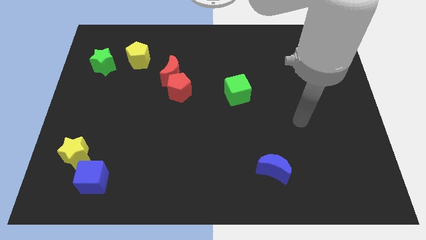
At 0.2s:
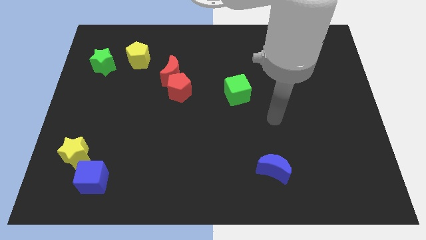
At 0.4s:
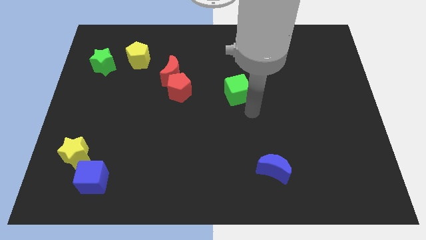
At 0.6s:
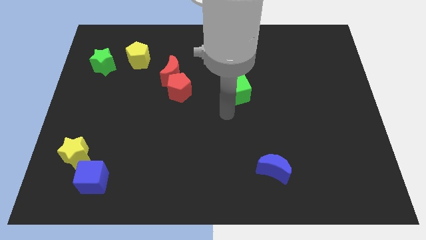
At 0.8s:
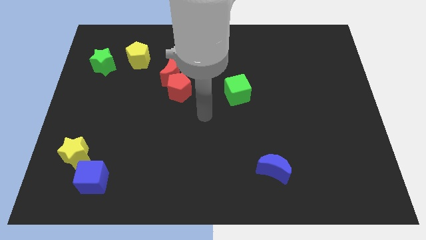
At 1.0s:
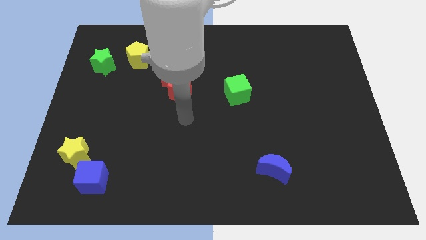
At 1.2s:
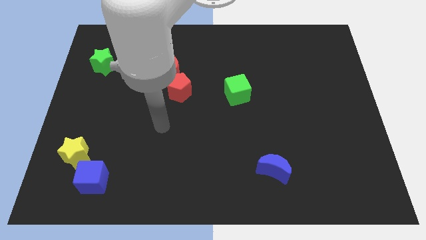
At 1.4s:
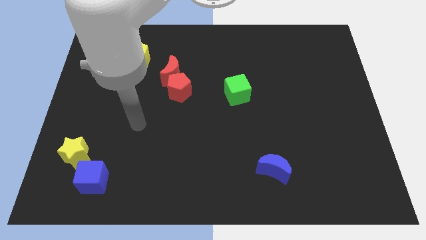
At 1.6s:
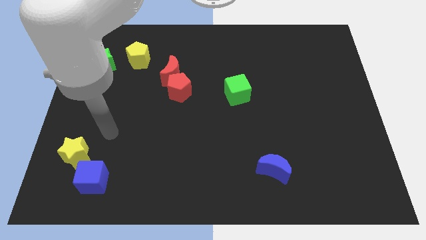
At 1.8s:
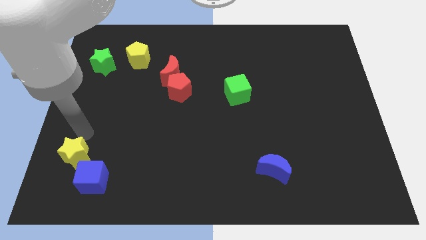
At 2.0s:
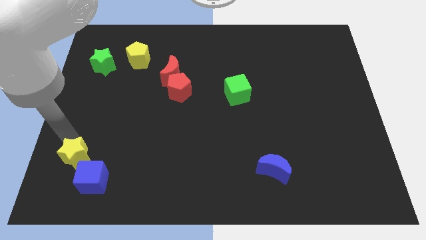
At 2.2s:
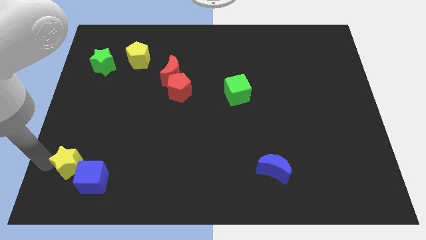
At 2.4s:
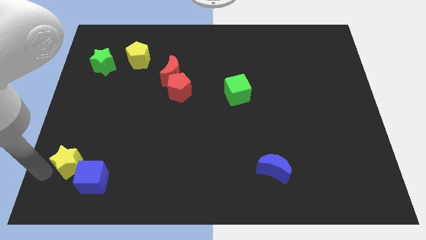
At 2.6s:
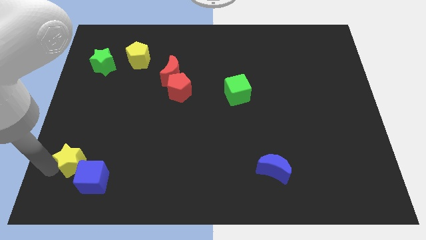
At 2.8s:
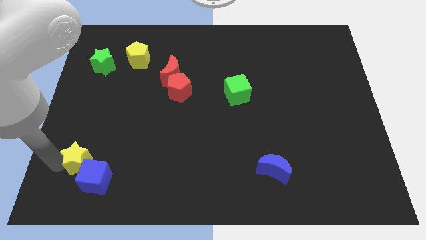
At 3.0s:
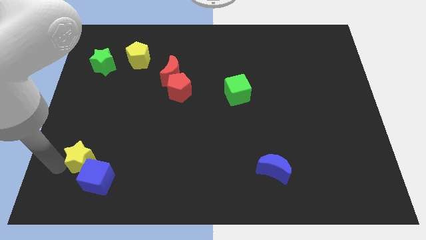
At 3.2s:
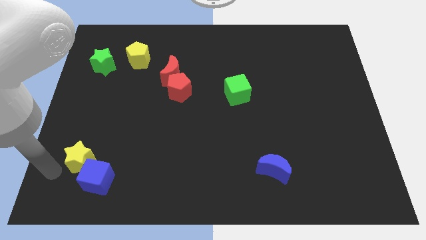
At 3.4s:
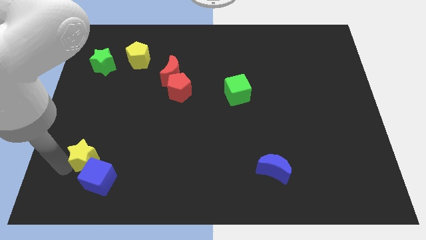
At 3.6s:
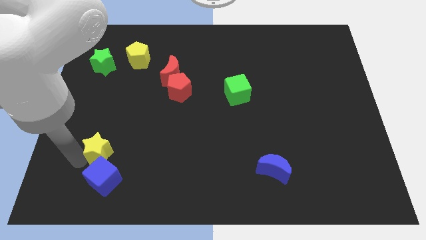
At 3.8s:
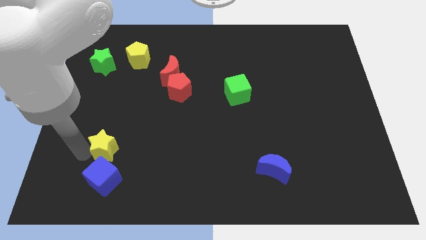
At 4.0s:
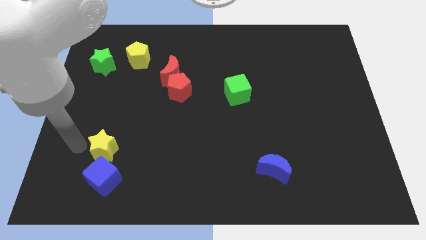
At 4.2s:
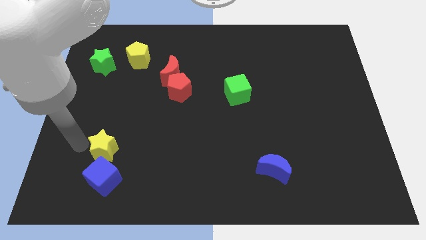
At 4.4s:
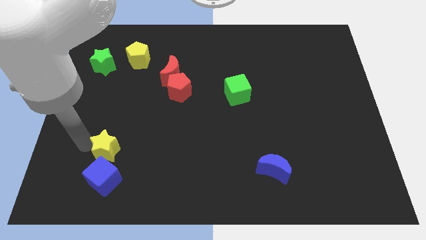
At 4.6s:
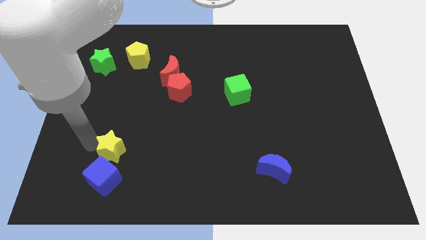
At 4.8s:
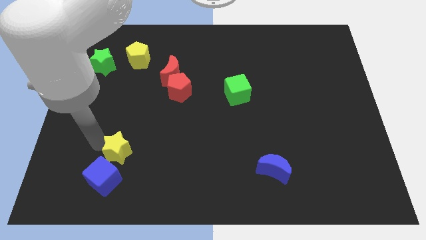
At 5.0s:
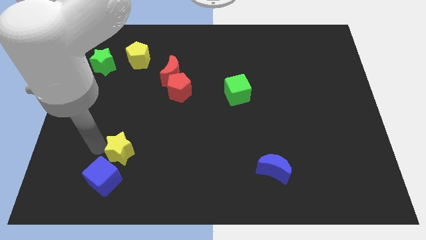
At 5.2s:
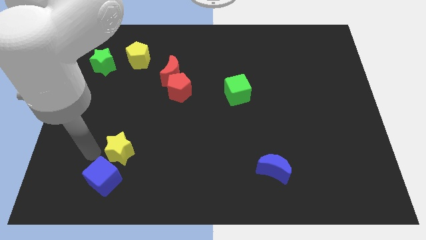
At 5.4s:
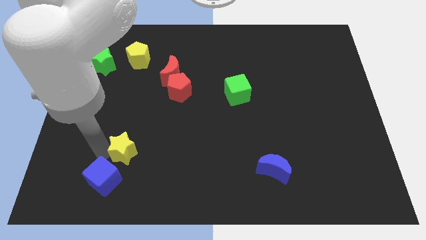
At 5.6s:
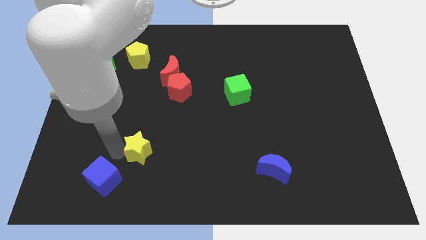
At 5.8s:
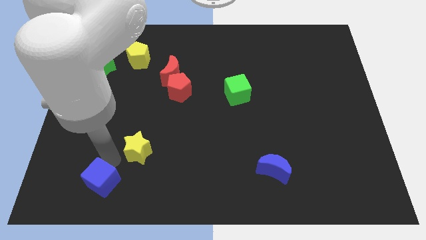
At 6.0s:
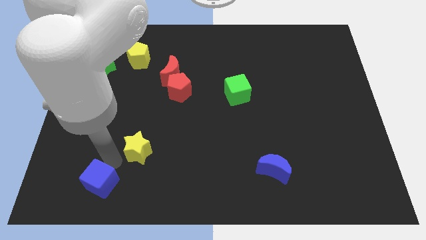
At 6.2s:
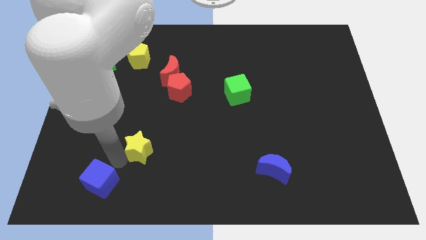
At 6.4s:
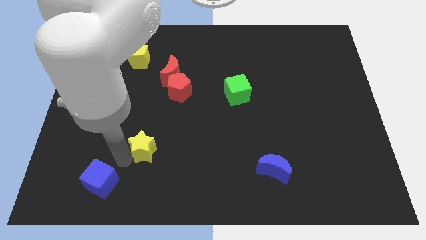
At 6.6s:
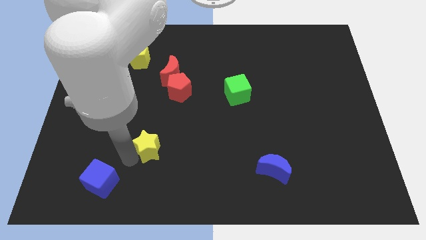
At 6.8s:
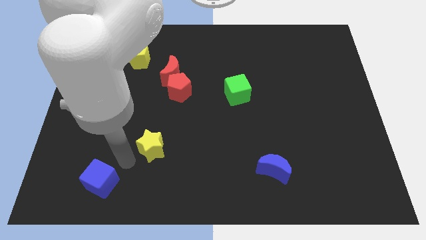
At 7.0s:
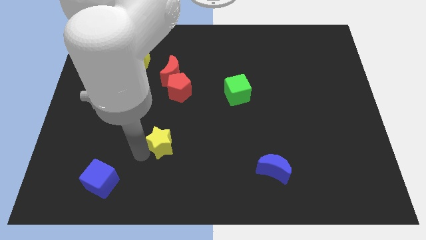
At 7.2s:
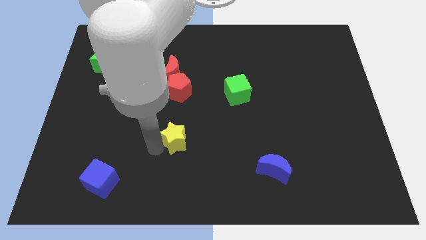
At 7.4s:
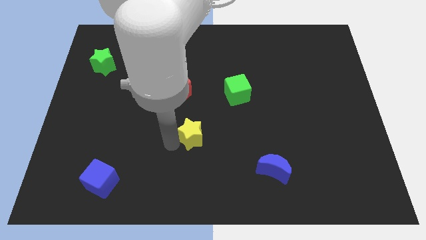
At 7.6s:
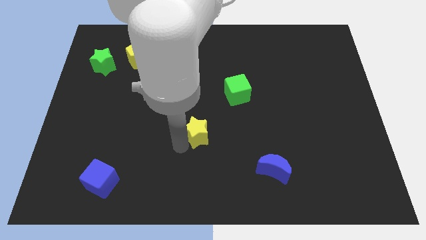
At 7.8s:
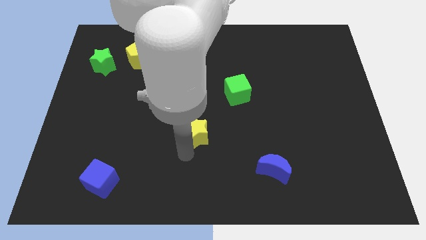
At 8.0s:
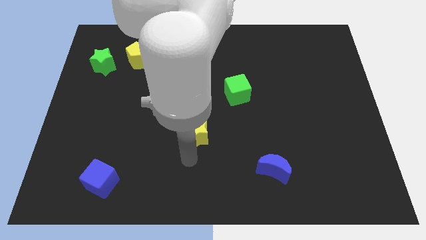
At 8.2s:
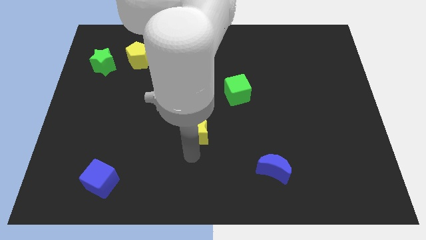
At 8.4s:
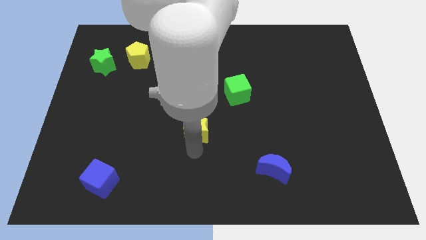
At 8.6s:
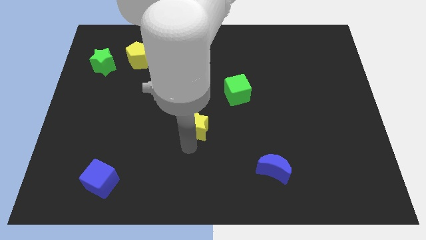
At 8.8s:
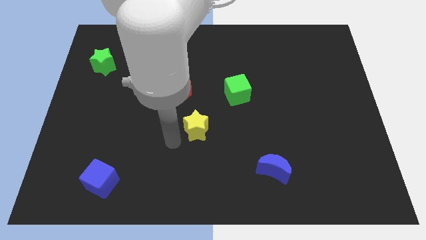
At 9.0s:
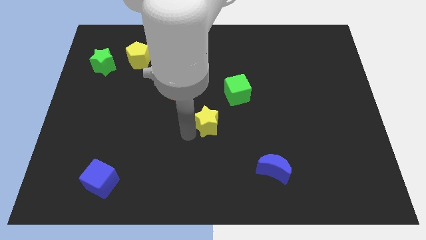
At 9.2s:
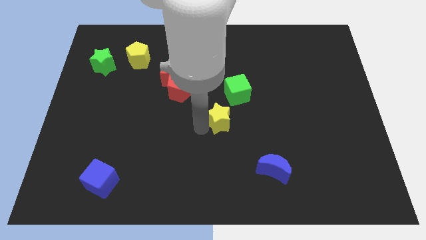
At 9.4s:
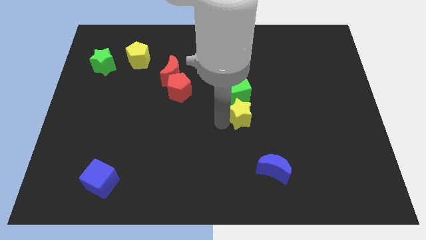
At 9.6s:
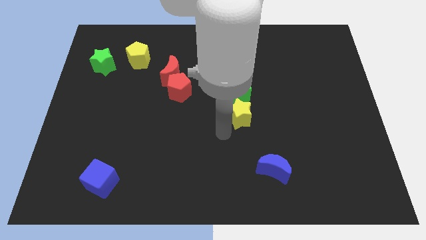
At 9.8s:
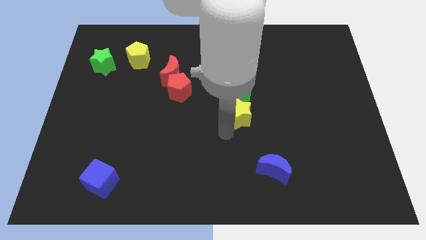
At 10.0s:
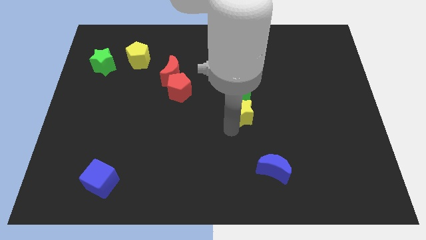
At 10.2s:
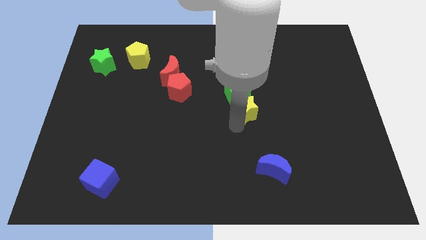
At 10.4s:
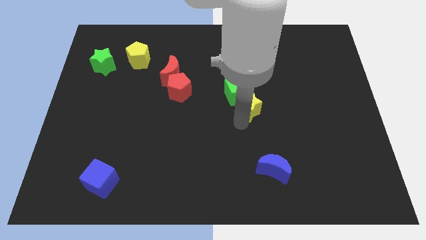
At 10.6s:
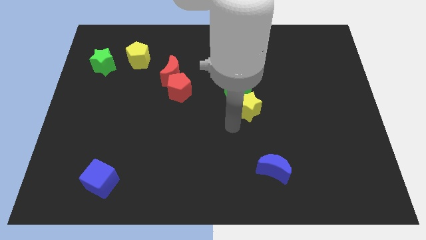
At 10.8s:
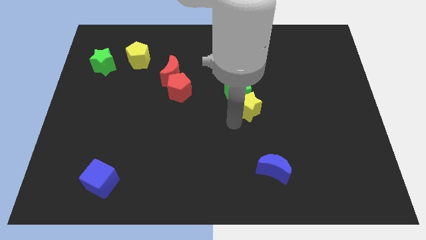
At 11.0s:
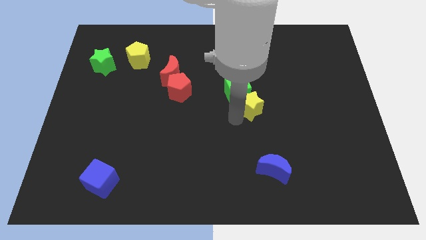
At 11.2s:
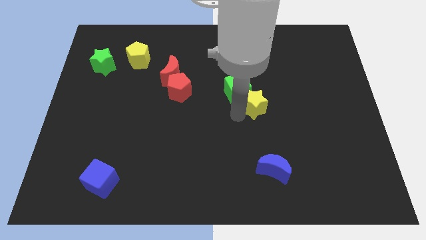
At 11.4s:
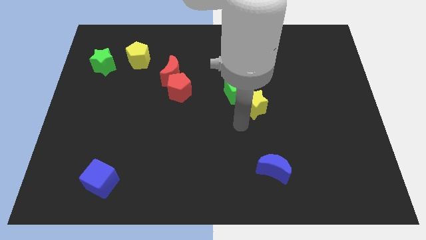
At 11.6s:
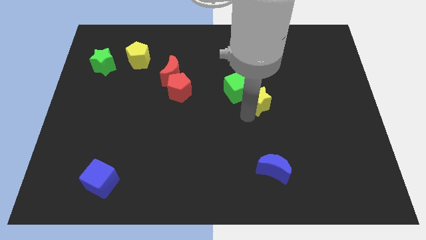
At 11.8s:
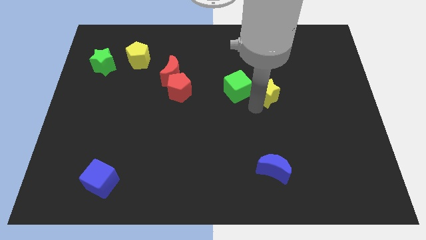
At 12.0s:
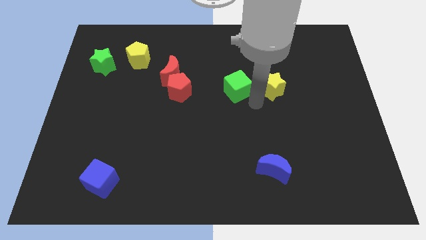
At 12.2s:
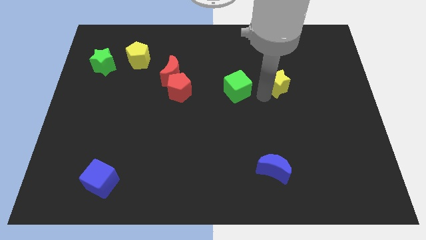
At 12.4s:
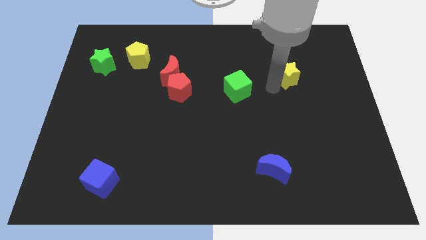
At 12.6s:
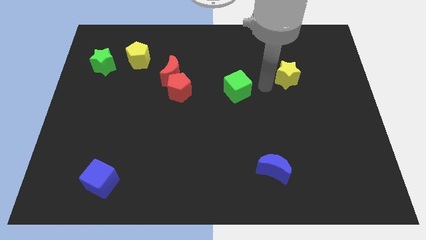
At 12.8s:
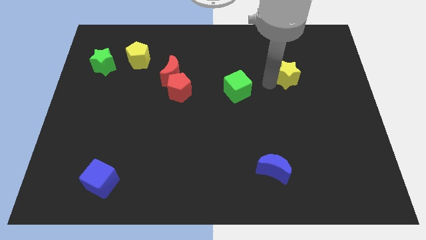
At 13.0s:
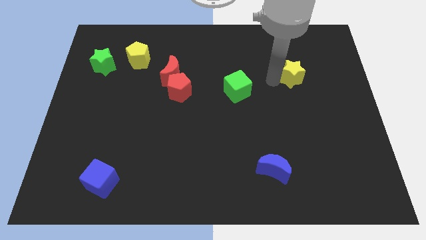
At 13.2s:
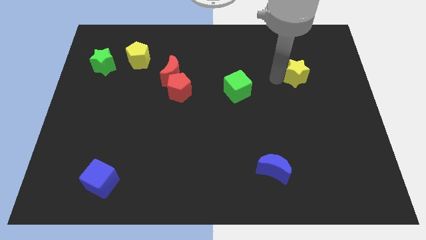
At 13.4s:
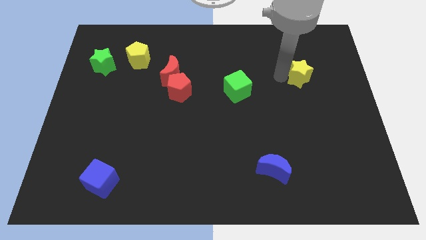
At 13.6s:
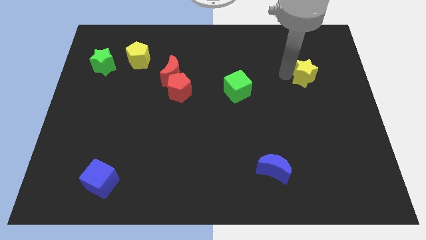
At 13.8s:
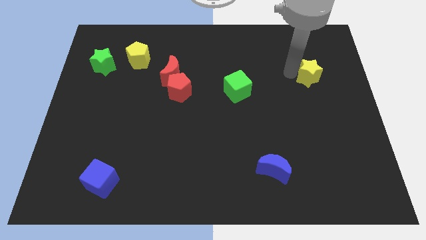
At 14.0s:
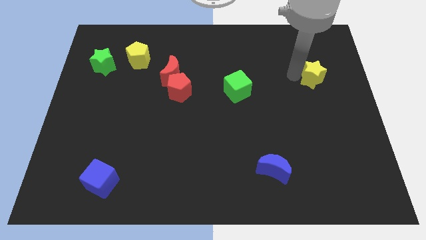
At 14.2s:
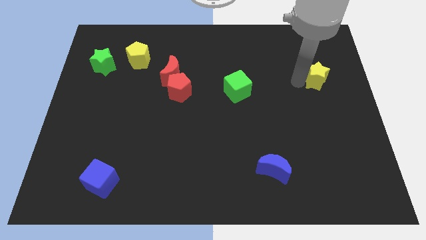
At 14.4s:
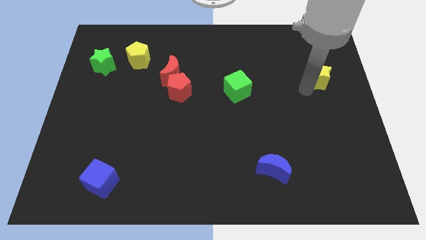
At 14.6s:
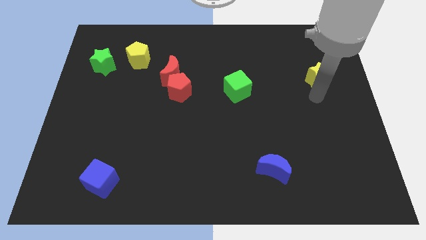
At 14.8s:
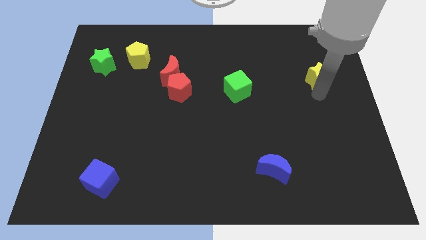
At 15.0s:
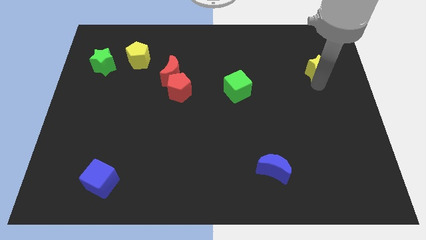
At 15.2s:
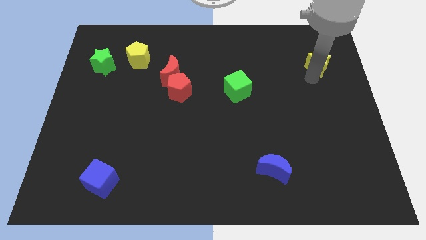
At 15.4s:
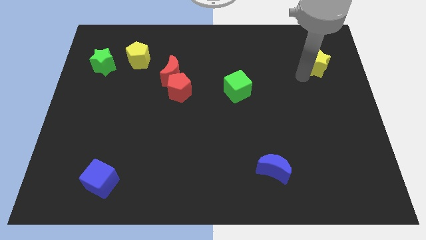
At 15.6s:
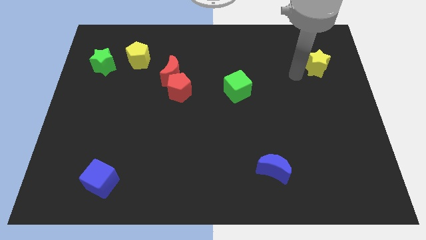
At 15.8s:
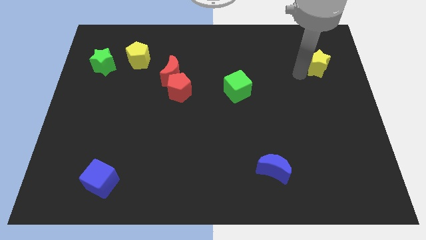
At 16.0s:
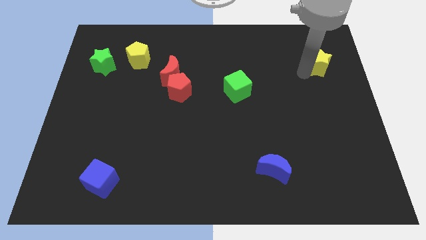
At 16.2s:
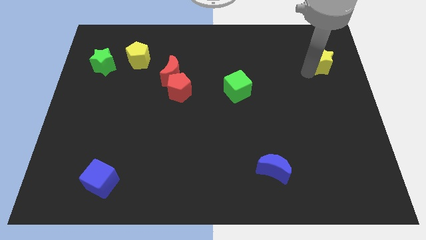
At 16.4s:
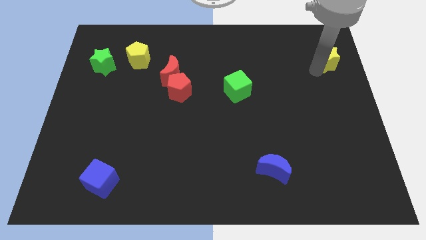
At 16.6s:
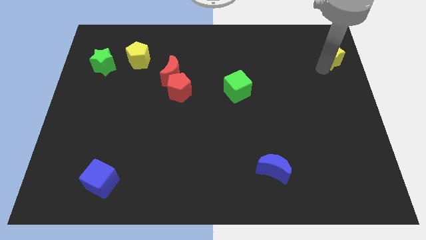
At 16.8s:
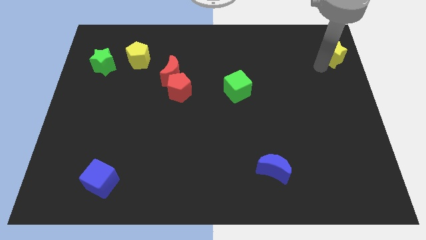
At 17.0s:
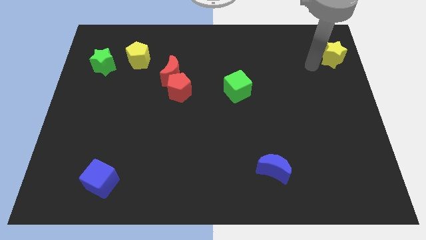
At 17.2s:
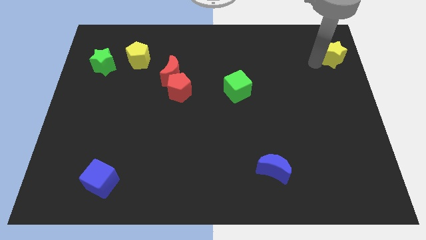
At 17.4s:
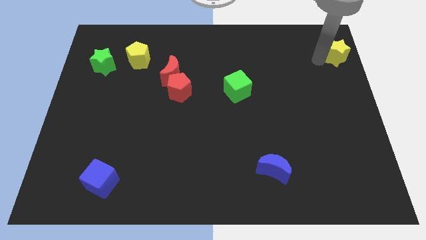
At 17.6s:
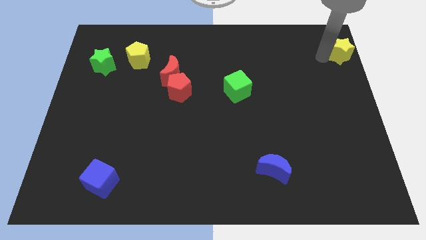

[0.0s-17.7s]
move the yellow star to the top right of the board
